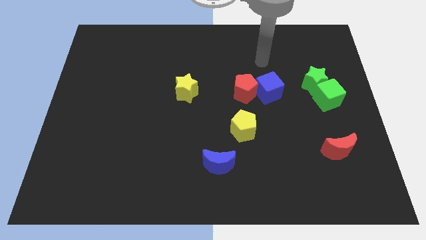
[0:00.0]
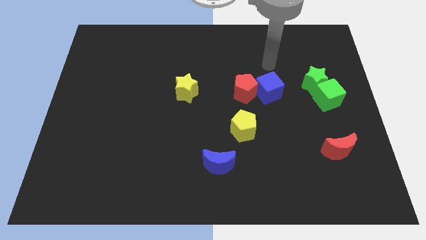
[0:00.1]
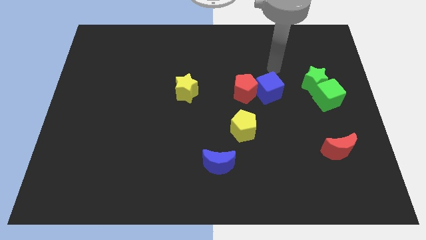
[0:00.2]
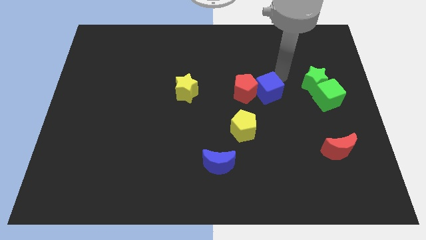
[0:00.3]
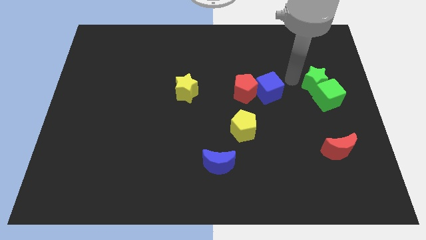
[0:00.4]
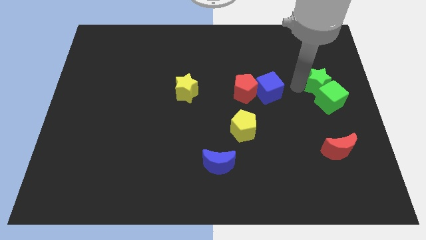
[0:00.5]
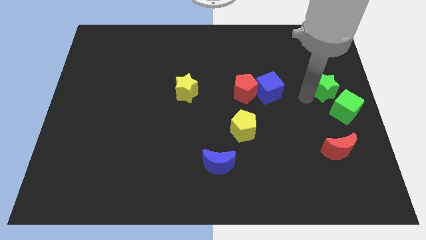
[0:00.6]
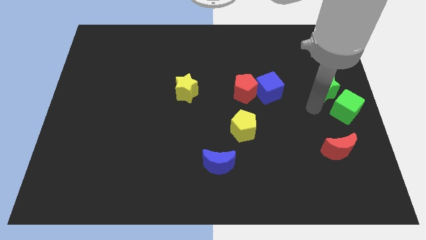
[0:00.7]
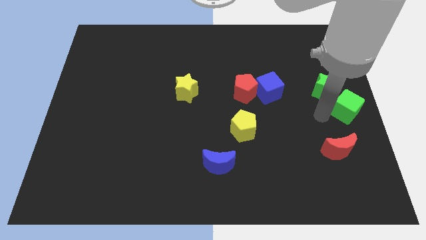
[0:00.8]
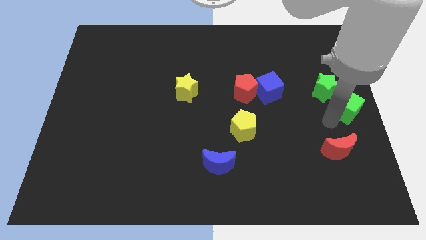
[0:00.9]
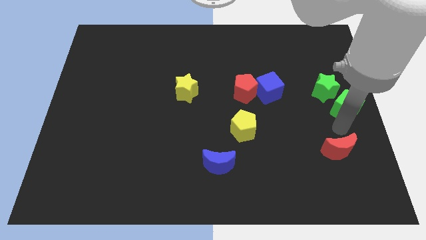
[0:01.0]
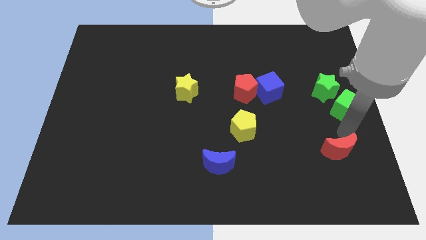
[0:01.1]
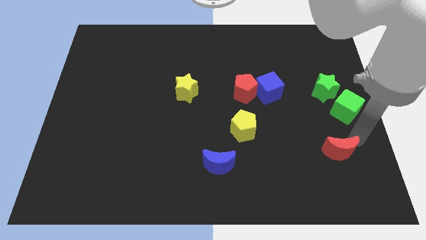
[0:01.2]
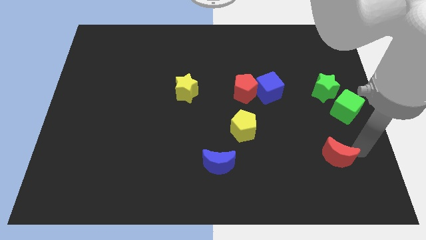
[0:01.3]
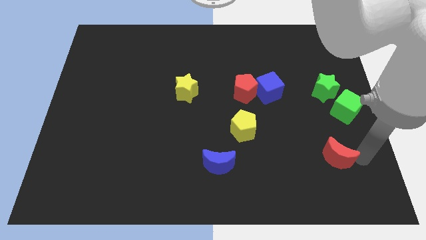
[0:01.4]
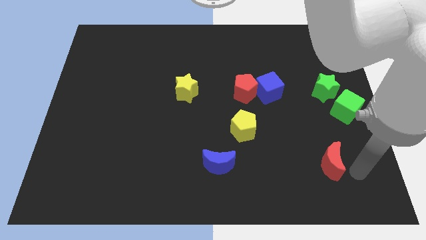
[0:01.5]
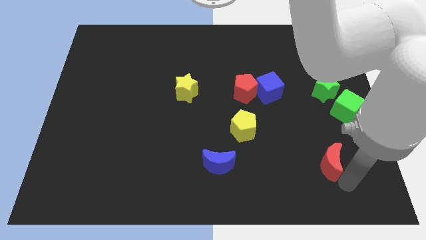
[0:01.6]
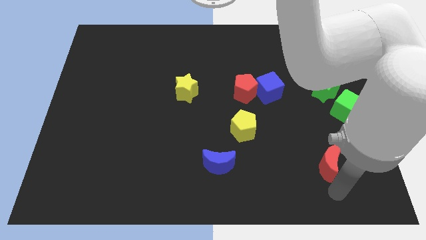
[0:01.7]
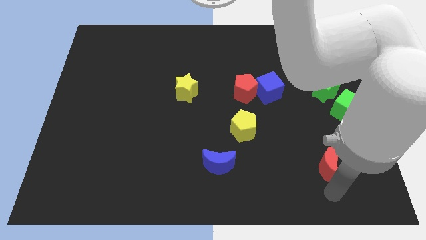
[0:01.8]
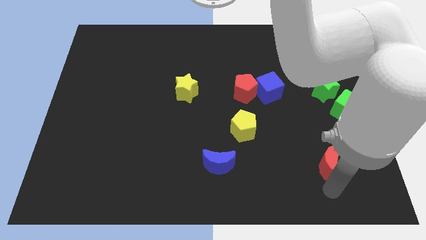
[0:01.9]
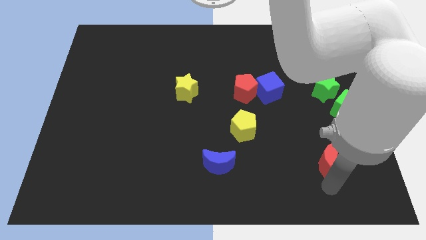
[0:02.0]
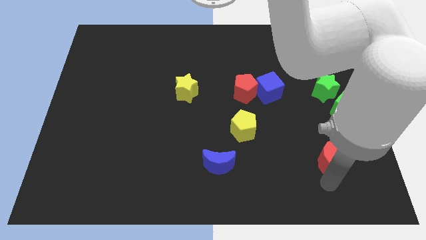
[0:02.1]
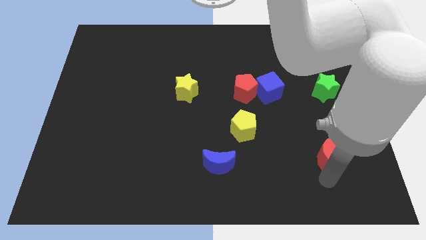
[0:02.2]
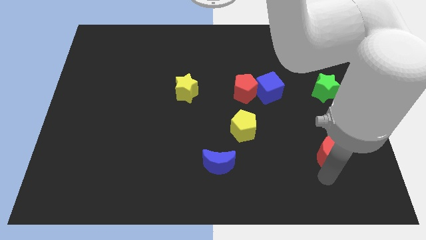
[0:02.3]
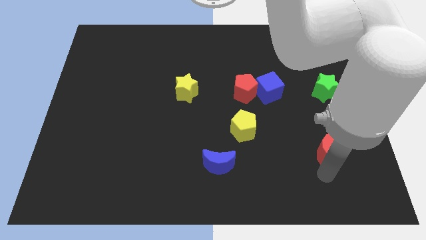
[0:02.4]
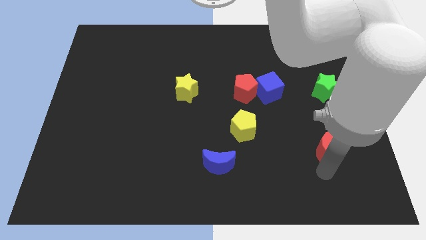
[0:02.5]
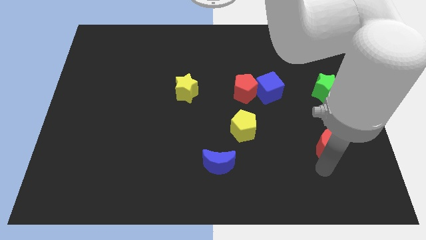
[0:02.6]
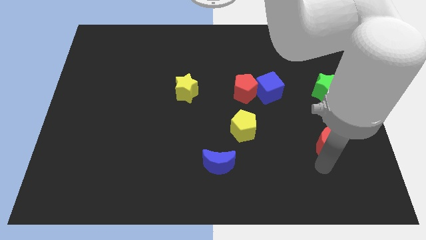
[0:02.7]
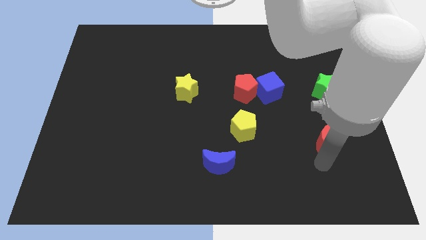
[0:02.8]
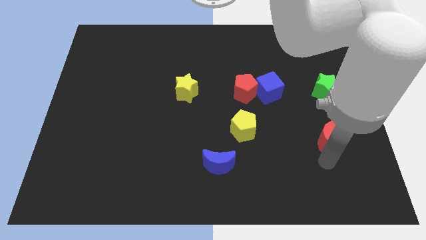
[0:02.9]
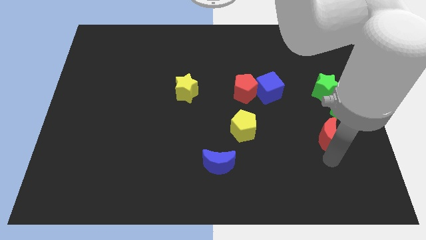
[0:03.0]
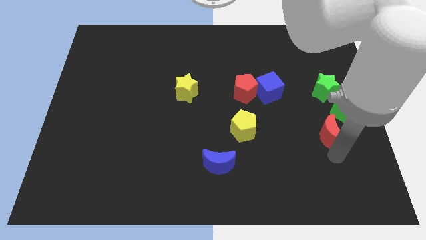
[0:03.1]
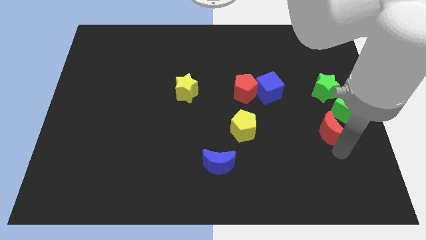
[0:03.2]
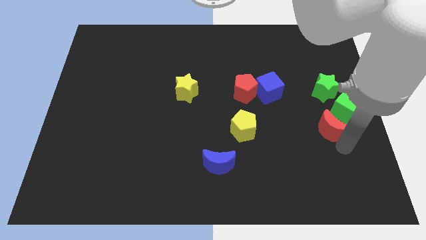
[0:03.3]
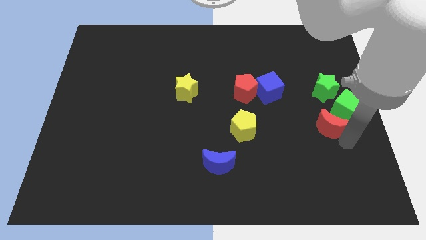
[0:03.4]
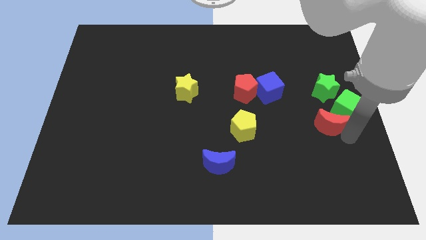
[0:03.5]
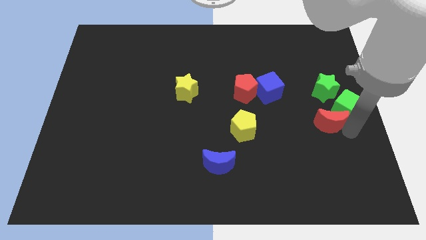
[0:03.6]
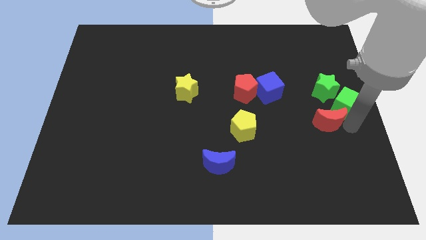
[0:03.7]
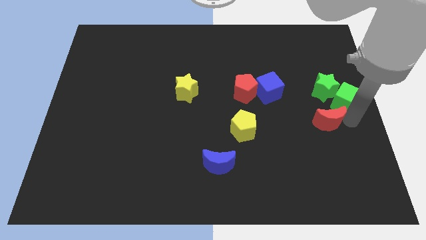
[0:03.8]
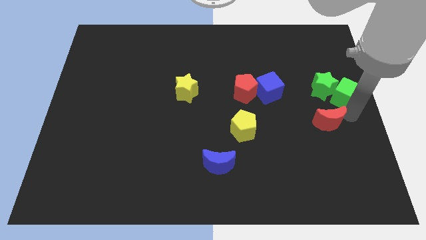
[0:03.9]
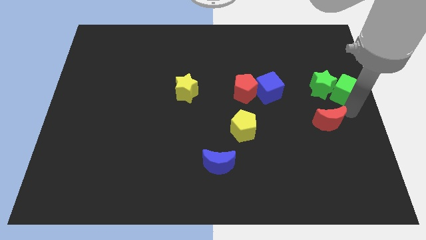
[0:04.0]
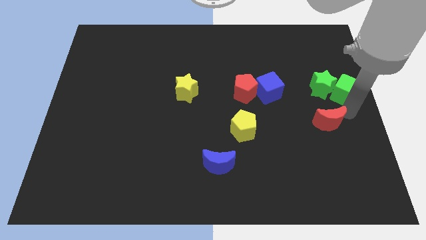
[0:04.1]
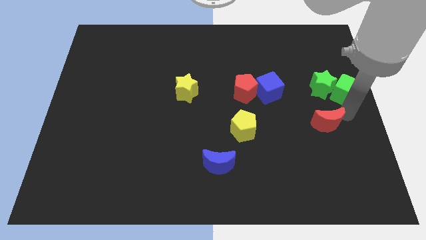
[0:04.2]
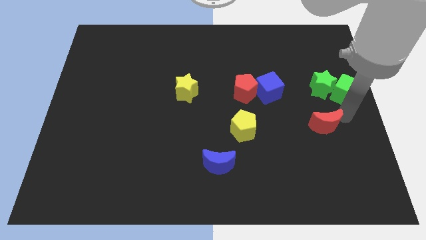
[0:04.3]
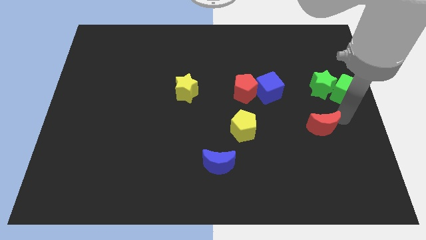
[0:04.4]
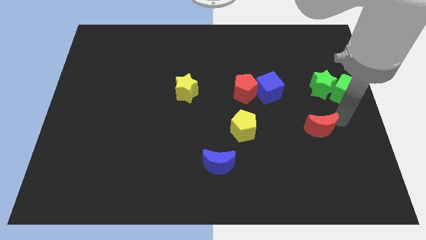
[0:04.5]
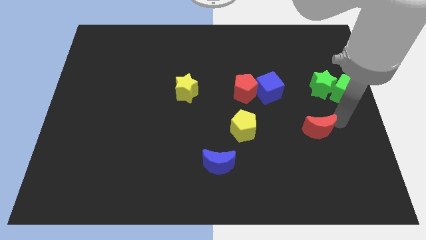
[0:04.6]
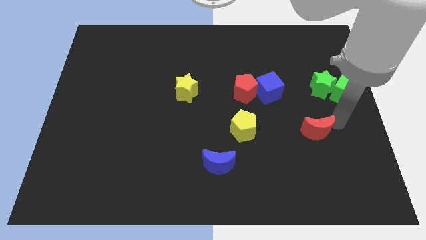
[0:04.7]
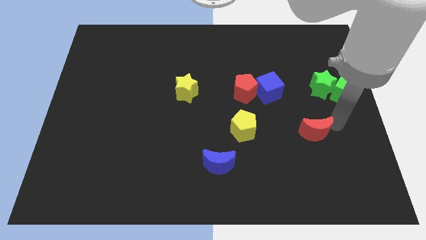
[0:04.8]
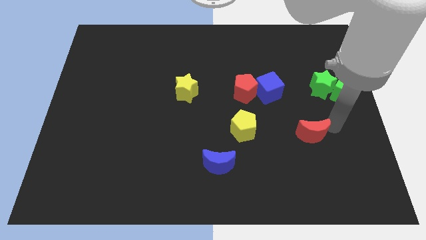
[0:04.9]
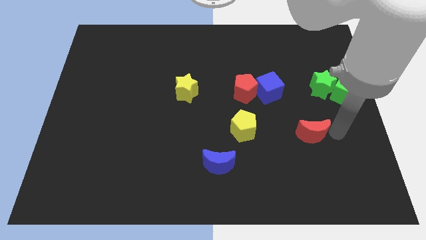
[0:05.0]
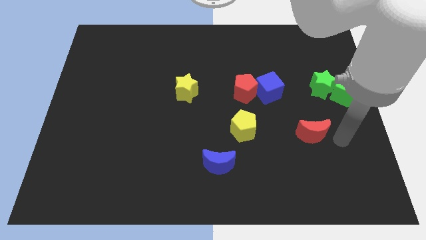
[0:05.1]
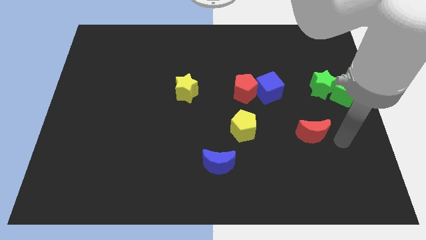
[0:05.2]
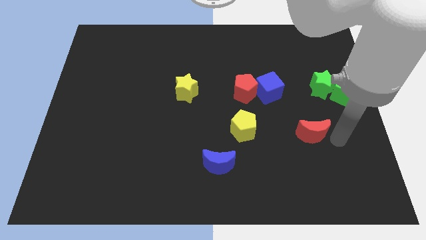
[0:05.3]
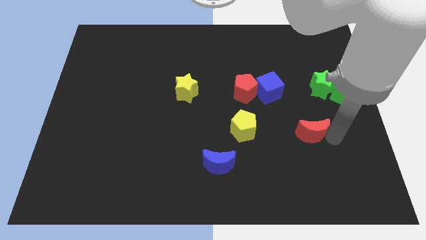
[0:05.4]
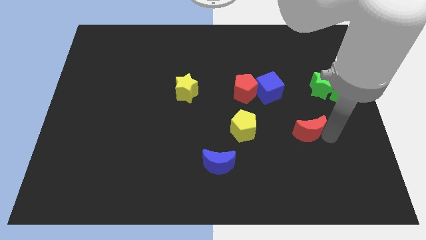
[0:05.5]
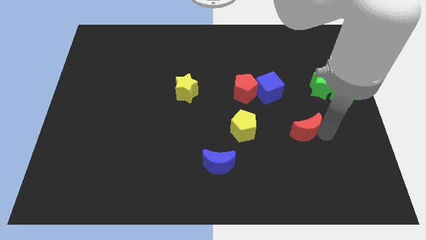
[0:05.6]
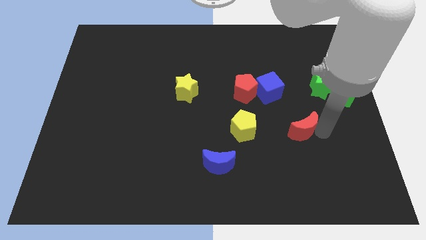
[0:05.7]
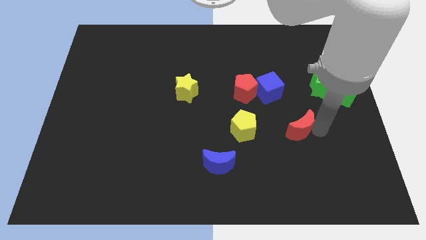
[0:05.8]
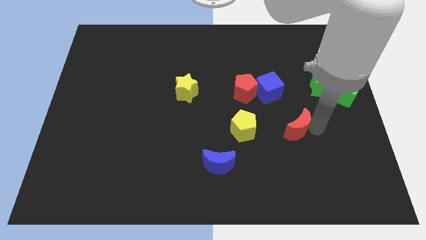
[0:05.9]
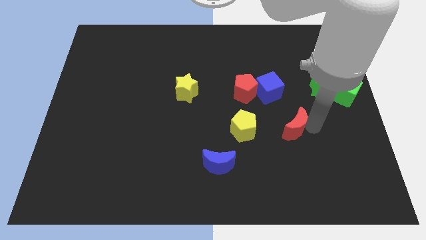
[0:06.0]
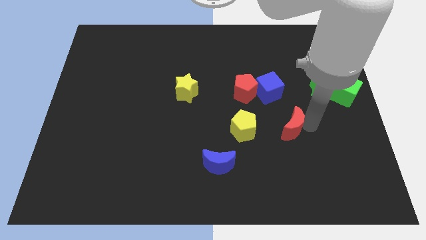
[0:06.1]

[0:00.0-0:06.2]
slide the red moon to the bottom side of the blue cube
